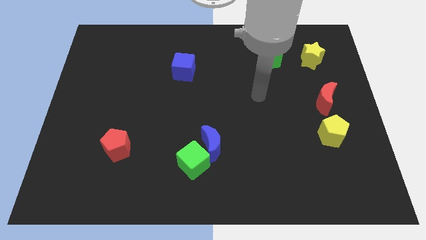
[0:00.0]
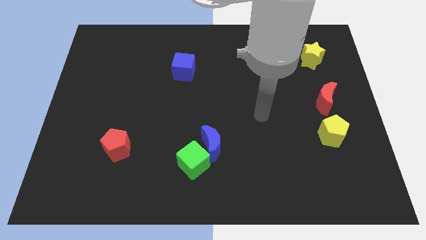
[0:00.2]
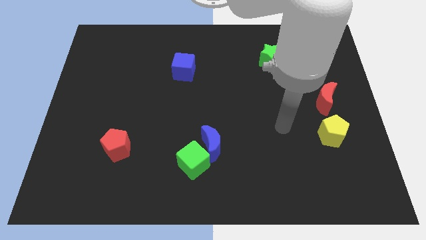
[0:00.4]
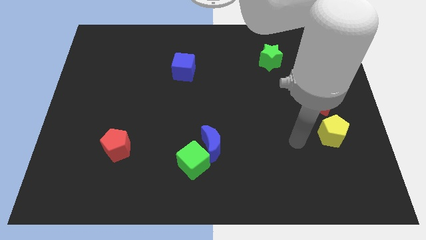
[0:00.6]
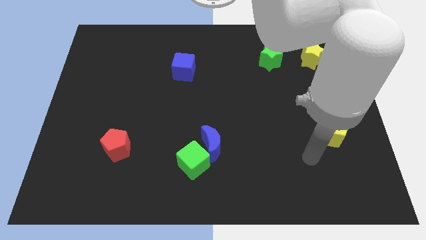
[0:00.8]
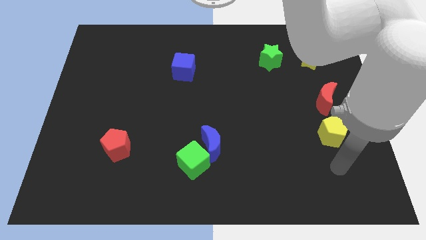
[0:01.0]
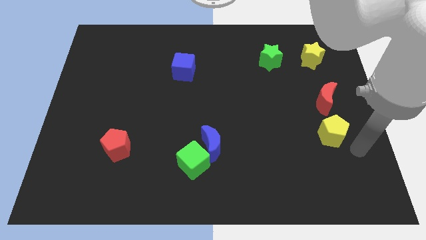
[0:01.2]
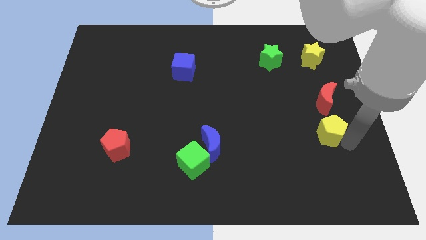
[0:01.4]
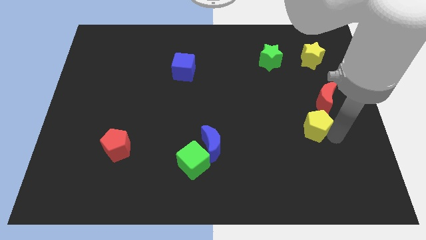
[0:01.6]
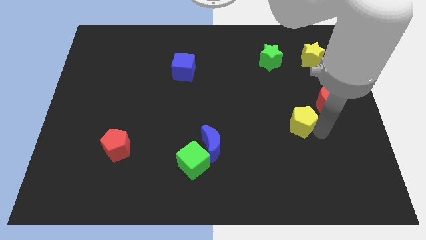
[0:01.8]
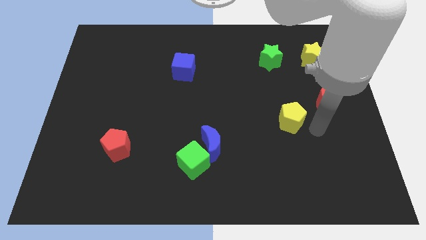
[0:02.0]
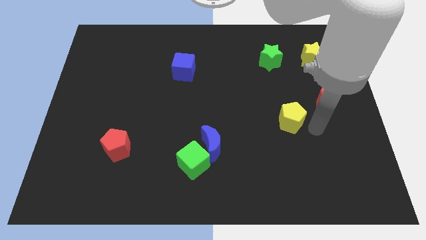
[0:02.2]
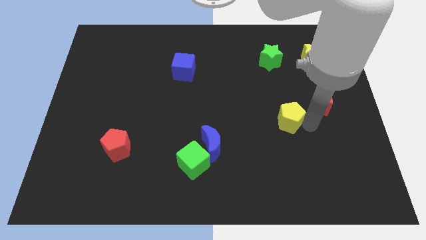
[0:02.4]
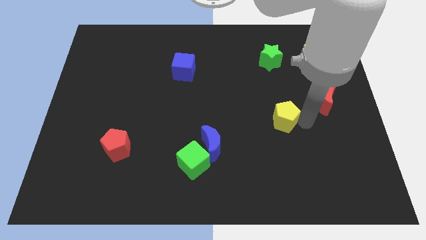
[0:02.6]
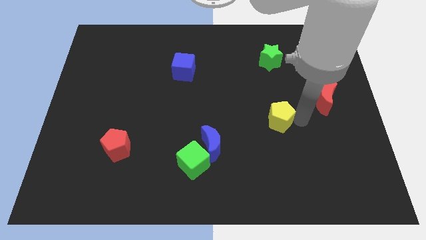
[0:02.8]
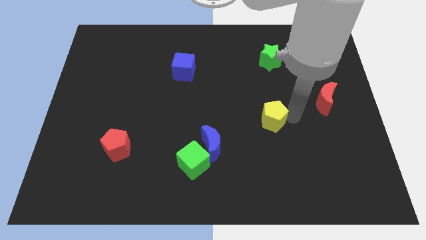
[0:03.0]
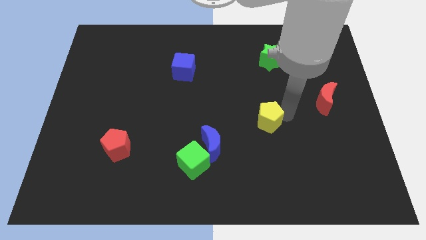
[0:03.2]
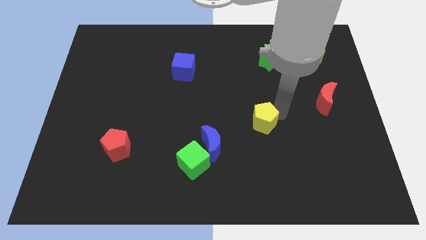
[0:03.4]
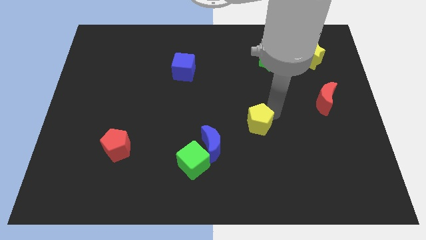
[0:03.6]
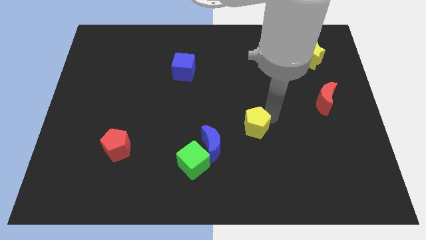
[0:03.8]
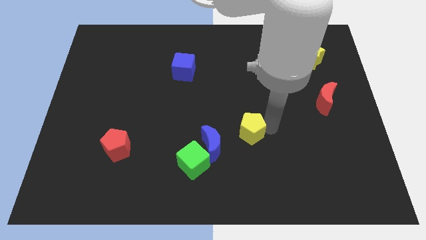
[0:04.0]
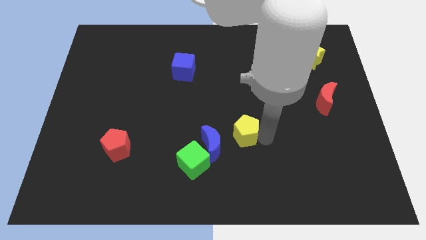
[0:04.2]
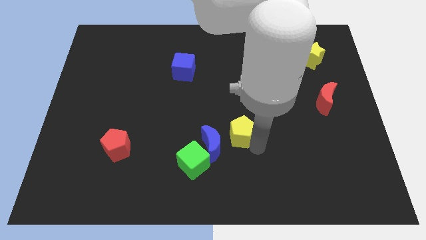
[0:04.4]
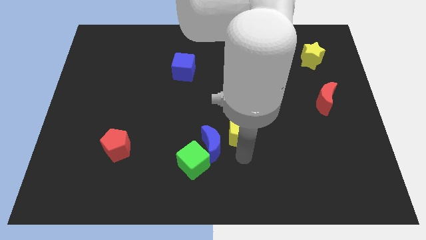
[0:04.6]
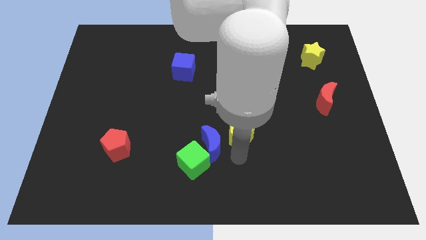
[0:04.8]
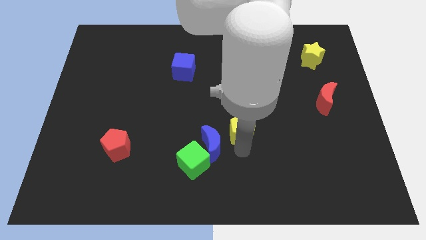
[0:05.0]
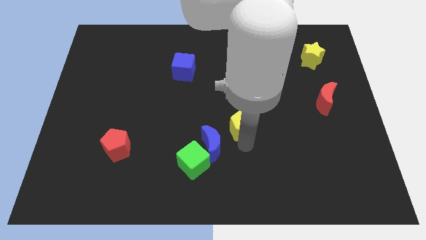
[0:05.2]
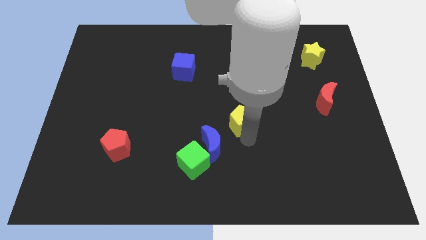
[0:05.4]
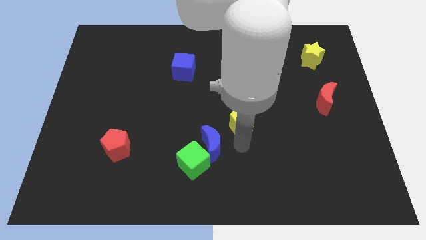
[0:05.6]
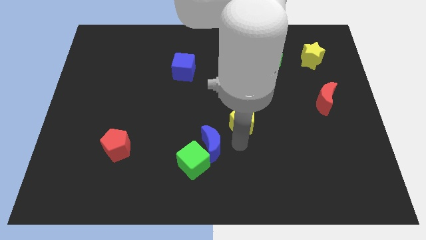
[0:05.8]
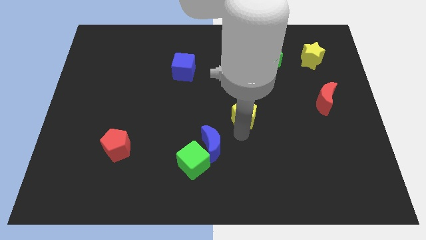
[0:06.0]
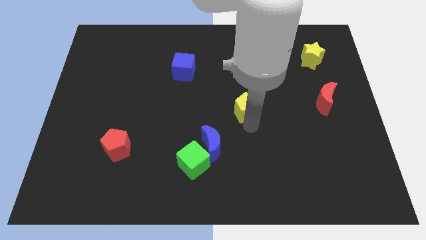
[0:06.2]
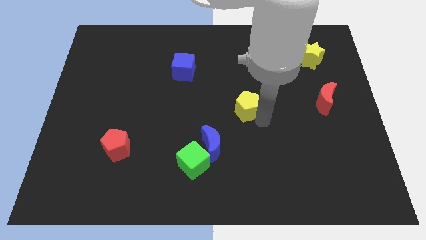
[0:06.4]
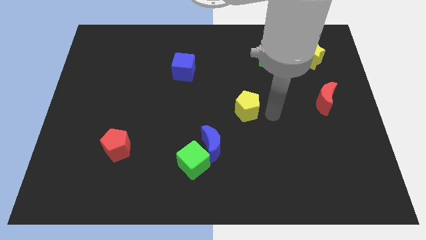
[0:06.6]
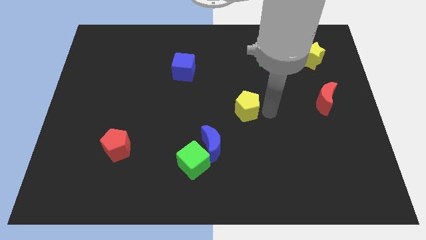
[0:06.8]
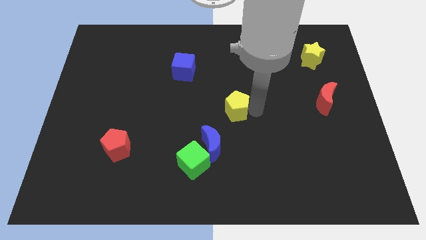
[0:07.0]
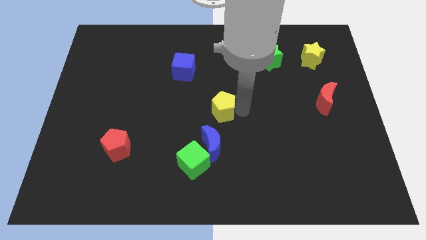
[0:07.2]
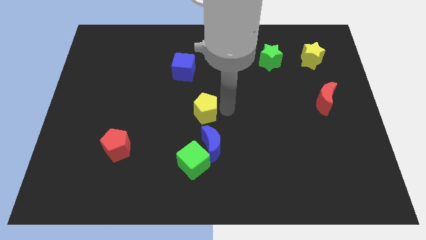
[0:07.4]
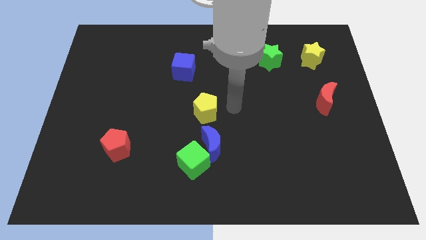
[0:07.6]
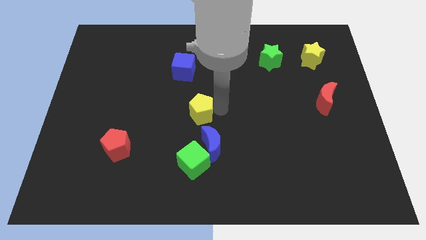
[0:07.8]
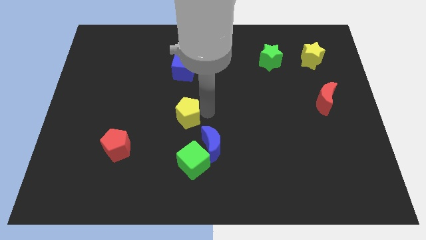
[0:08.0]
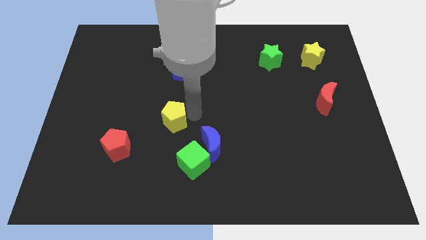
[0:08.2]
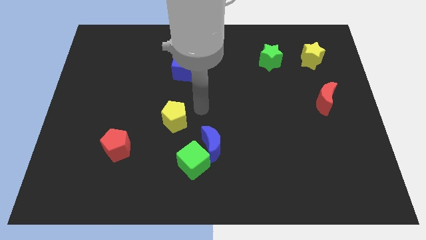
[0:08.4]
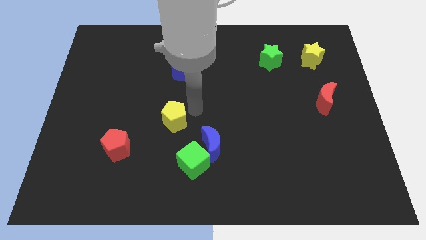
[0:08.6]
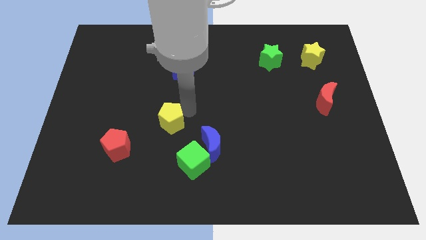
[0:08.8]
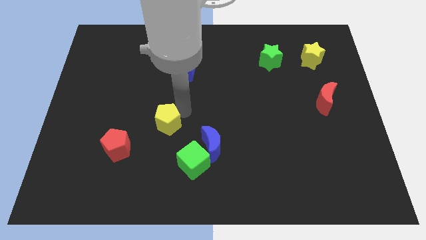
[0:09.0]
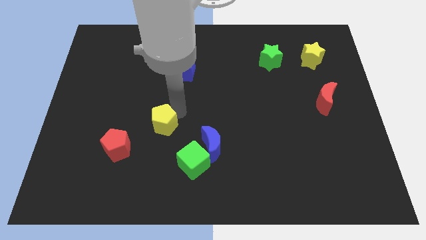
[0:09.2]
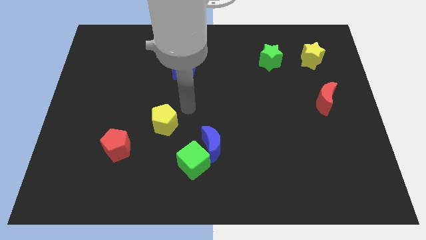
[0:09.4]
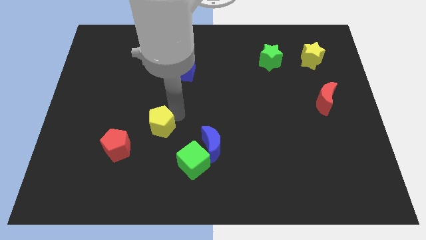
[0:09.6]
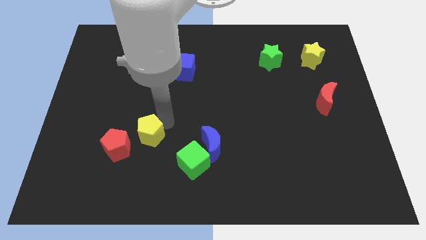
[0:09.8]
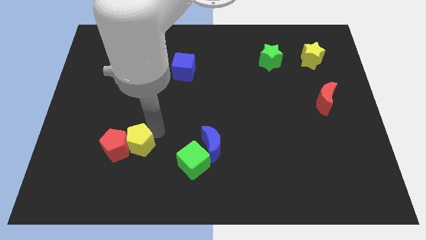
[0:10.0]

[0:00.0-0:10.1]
slide the yellow pentagon to the red pentagon

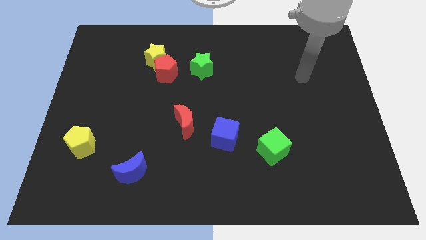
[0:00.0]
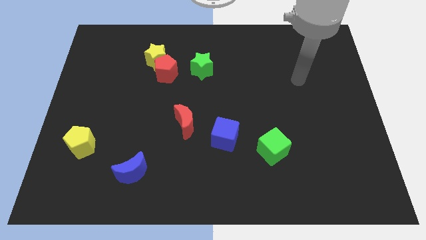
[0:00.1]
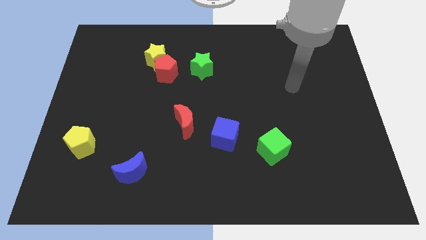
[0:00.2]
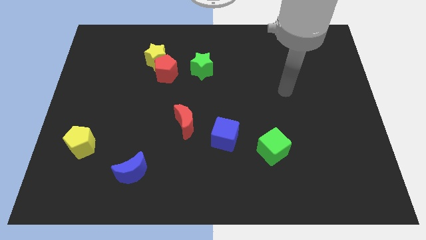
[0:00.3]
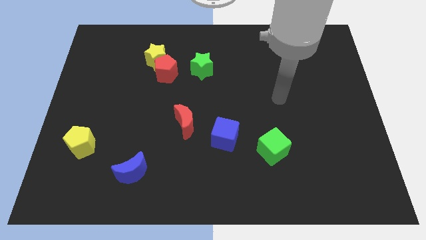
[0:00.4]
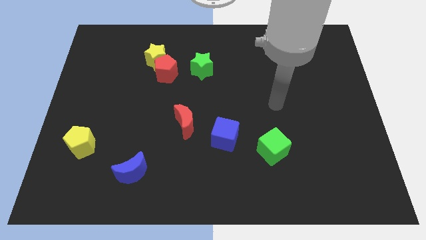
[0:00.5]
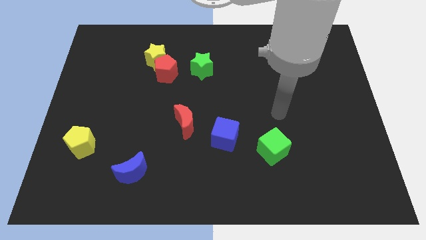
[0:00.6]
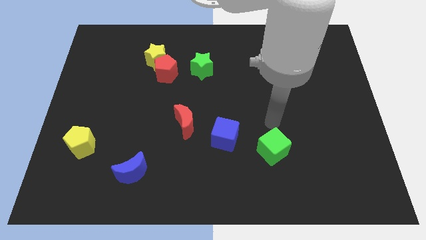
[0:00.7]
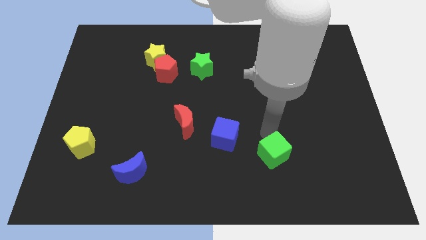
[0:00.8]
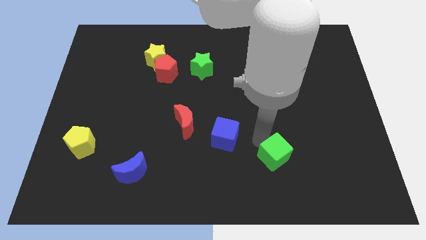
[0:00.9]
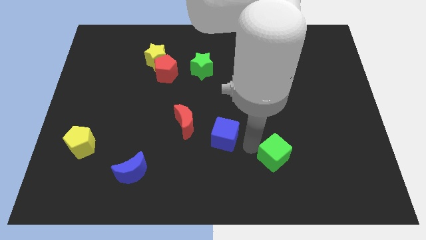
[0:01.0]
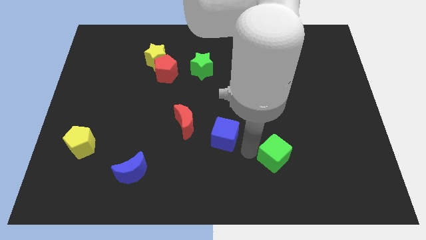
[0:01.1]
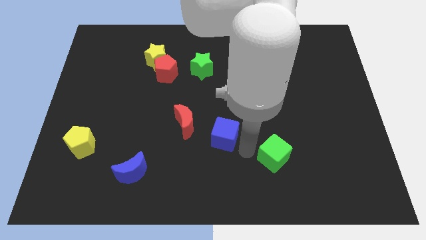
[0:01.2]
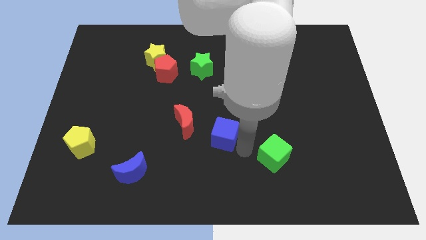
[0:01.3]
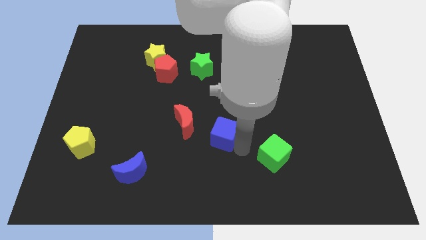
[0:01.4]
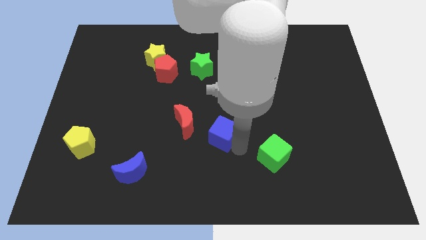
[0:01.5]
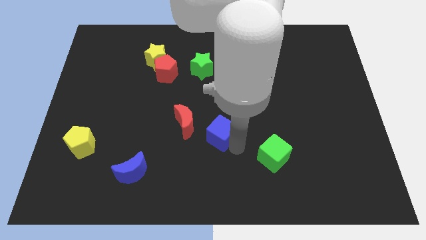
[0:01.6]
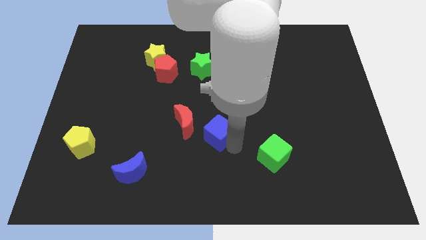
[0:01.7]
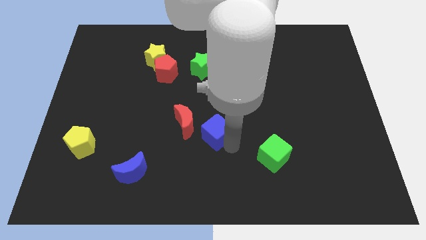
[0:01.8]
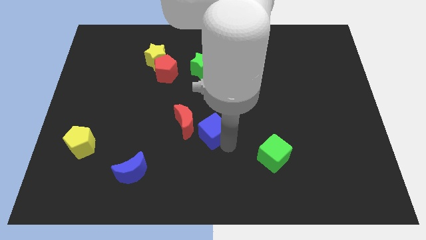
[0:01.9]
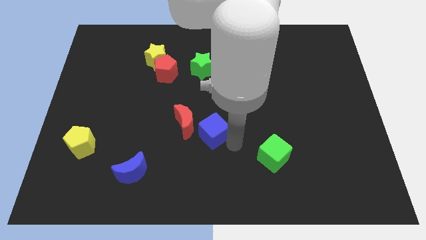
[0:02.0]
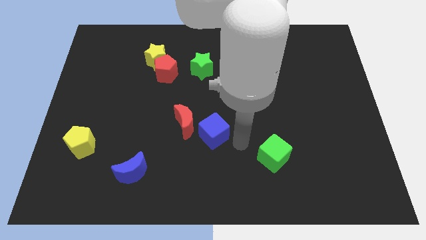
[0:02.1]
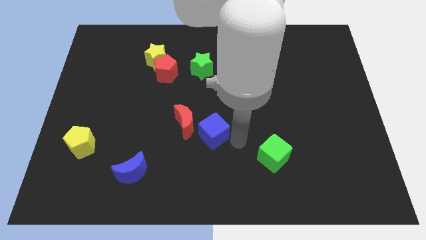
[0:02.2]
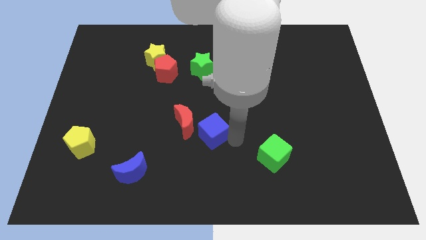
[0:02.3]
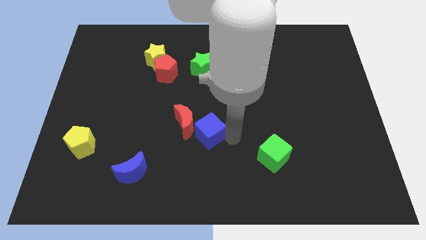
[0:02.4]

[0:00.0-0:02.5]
put the blue cube to the red moon
